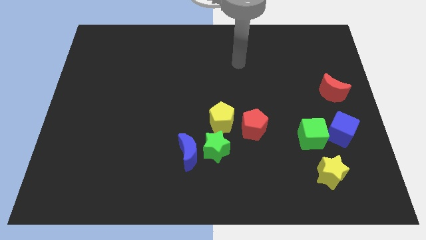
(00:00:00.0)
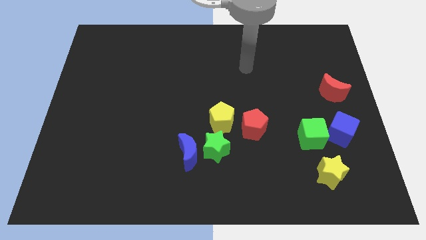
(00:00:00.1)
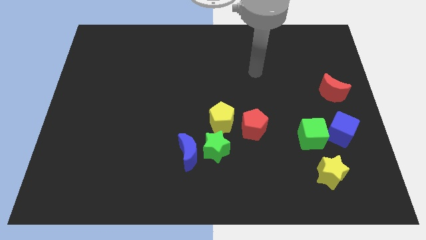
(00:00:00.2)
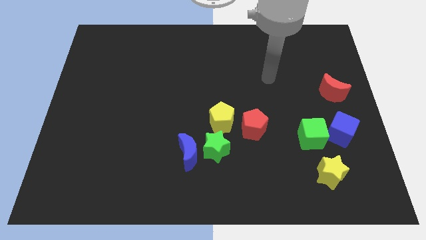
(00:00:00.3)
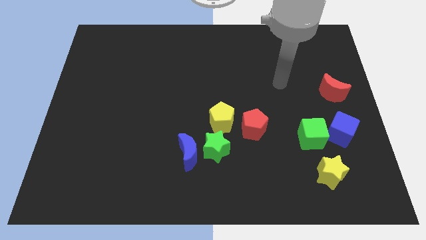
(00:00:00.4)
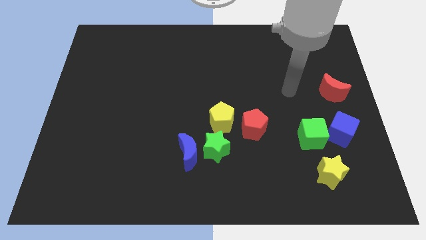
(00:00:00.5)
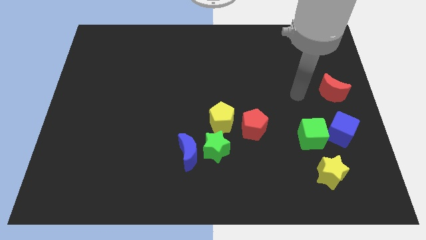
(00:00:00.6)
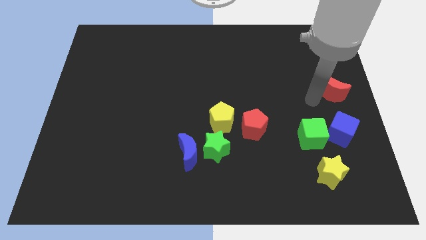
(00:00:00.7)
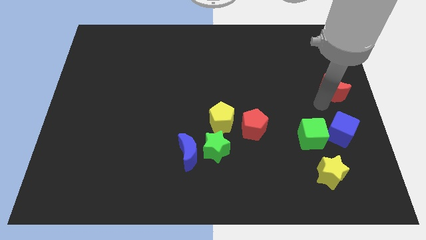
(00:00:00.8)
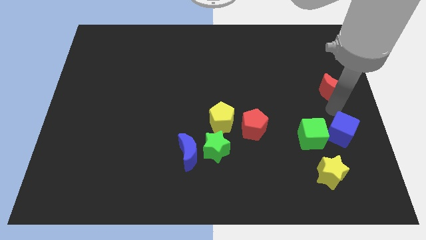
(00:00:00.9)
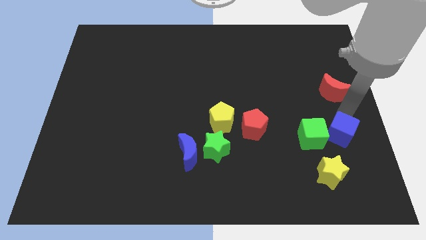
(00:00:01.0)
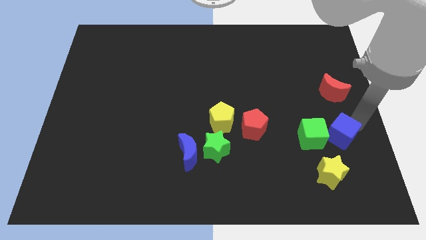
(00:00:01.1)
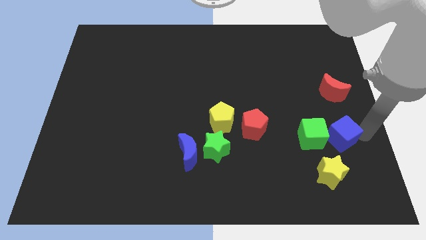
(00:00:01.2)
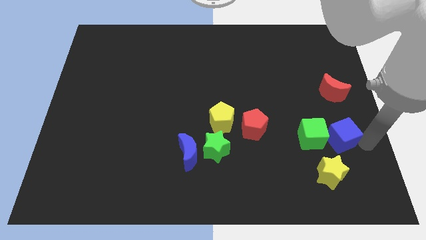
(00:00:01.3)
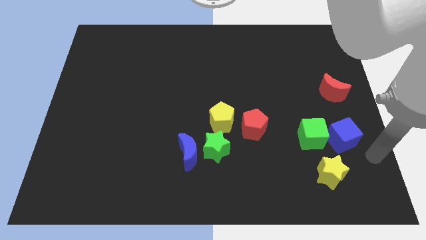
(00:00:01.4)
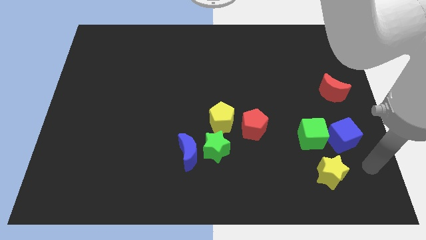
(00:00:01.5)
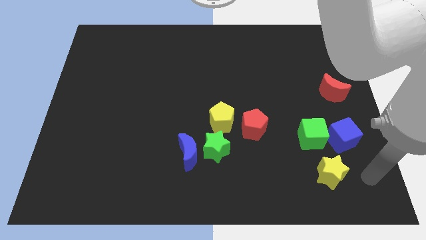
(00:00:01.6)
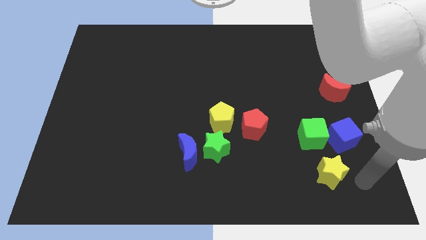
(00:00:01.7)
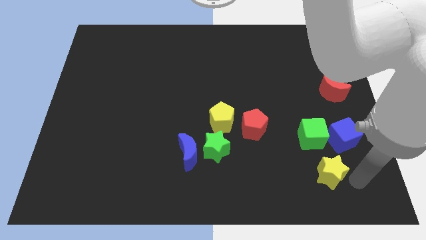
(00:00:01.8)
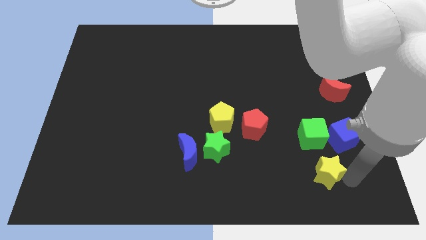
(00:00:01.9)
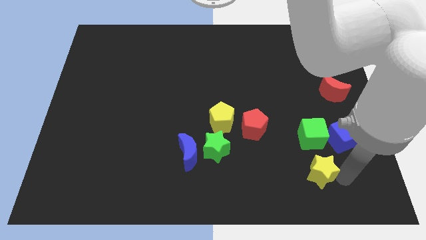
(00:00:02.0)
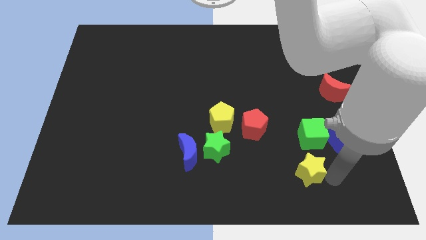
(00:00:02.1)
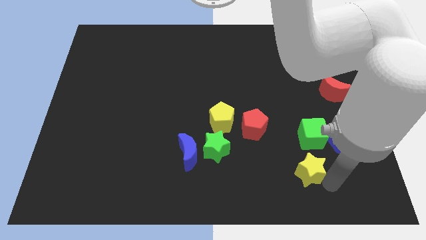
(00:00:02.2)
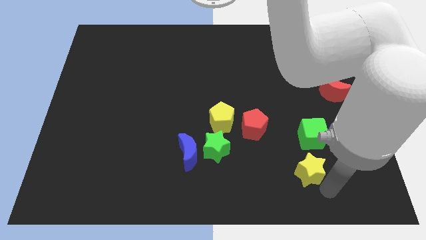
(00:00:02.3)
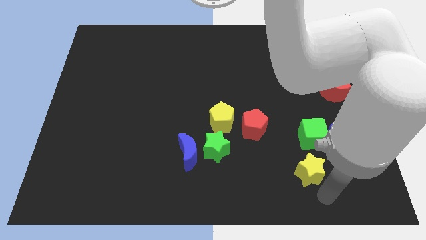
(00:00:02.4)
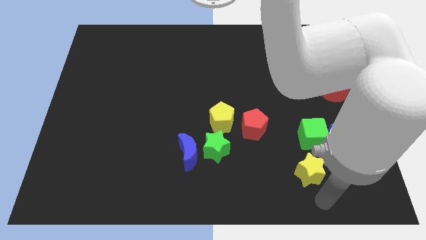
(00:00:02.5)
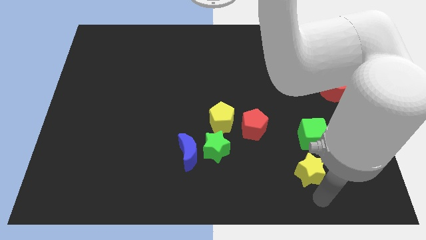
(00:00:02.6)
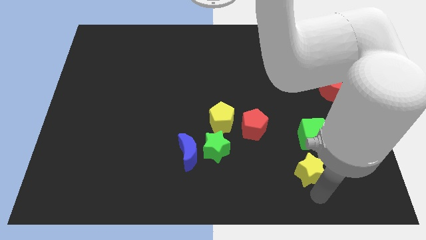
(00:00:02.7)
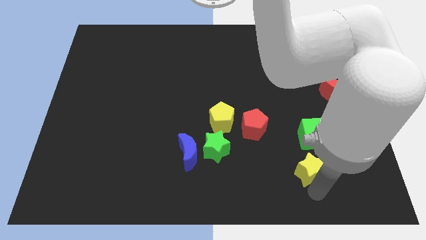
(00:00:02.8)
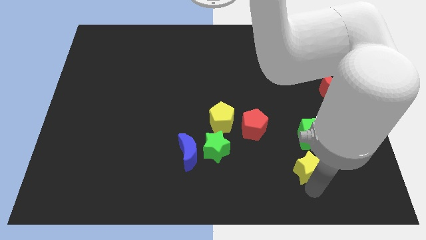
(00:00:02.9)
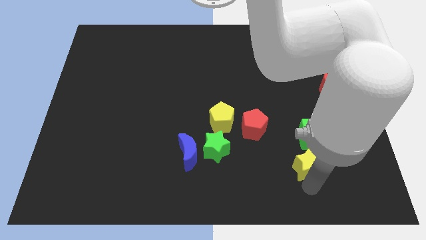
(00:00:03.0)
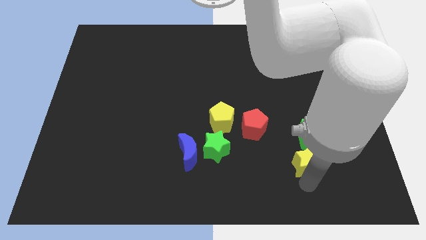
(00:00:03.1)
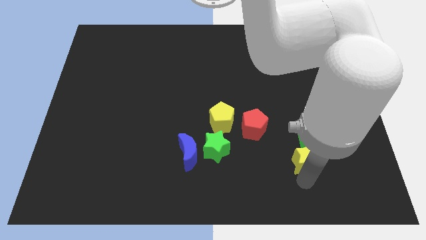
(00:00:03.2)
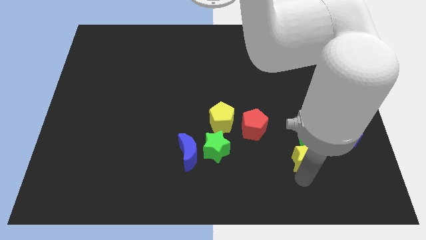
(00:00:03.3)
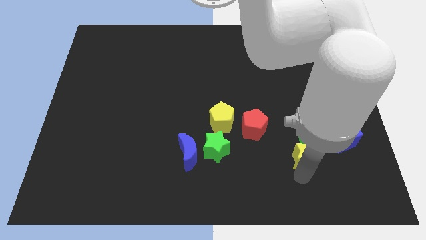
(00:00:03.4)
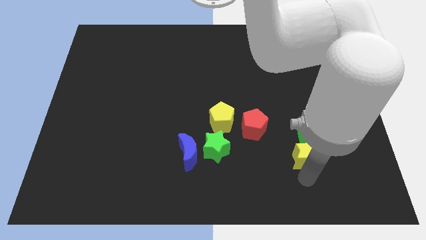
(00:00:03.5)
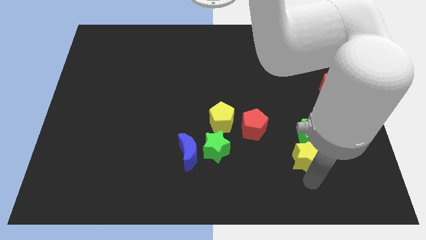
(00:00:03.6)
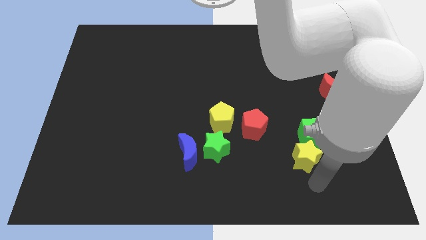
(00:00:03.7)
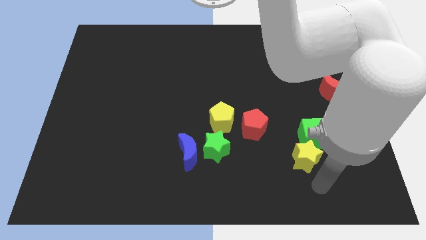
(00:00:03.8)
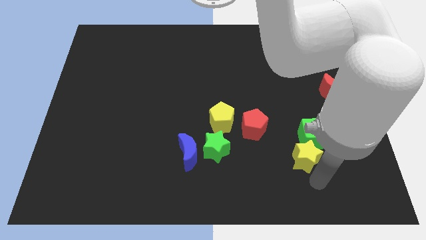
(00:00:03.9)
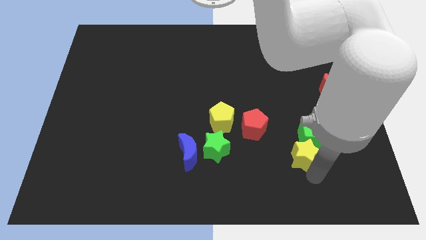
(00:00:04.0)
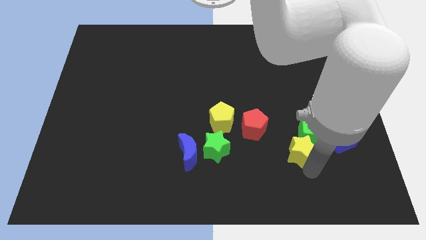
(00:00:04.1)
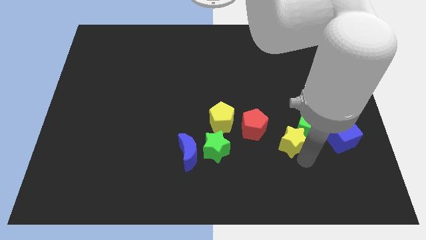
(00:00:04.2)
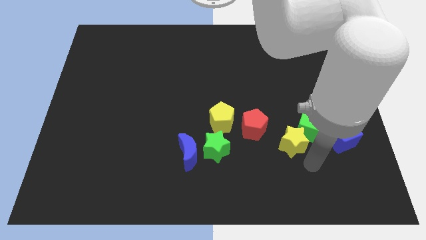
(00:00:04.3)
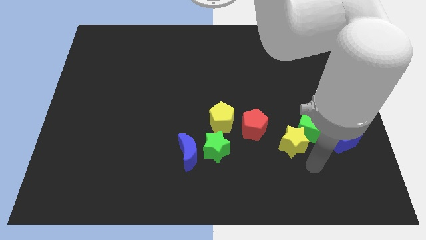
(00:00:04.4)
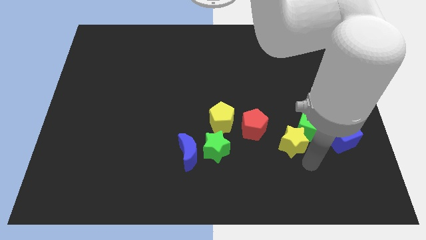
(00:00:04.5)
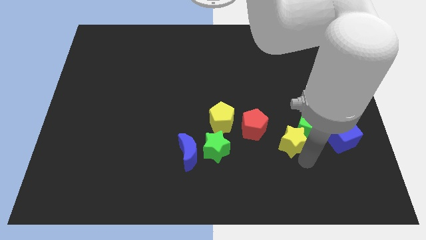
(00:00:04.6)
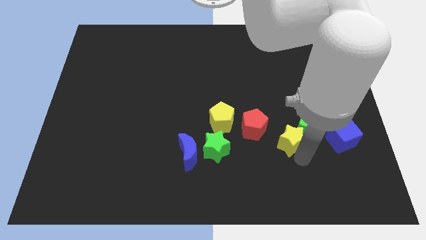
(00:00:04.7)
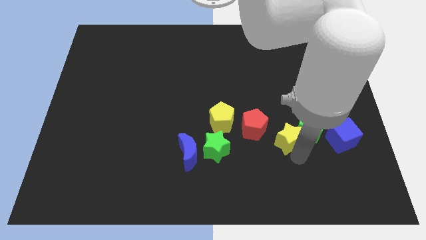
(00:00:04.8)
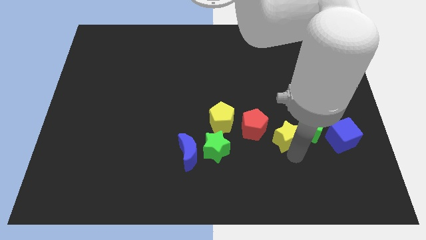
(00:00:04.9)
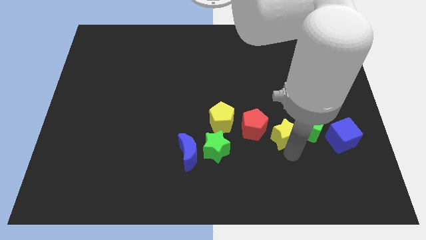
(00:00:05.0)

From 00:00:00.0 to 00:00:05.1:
put the yellow star just right of the yellow pentagon

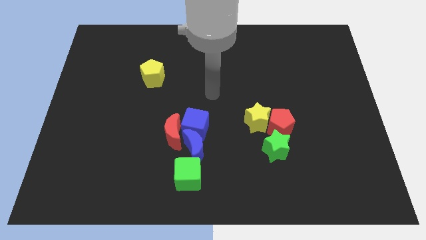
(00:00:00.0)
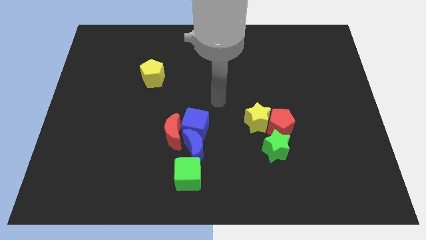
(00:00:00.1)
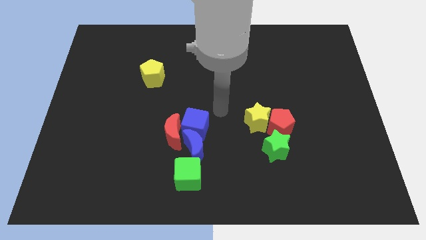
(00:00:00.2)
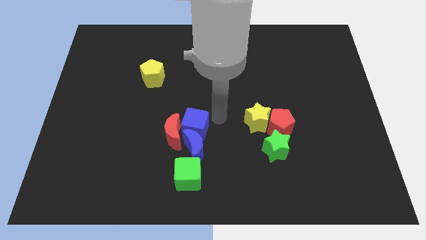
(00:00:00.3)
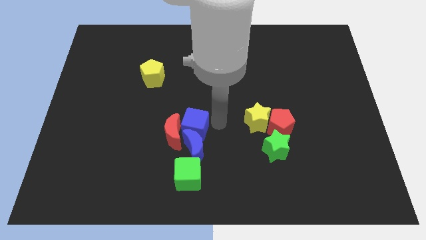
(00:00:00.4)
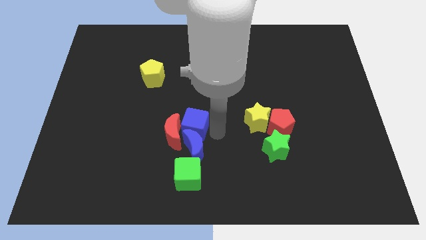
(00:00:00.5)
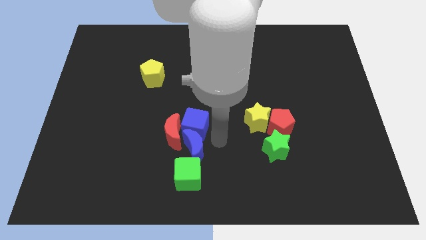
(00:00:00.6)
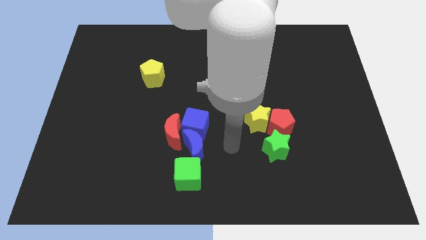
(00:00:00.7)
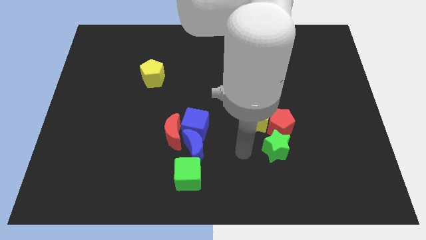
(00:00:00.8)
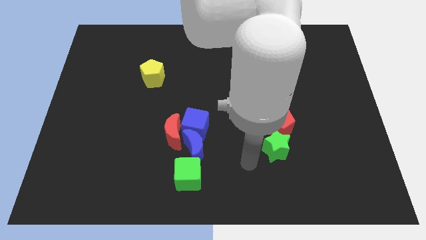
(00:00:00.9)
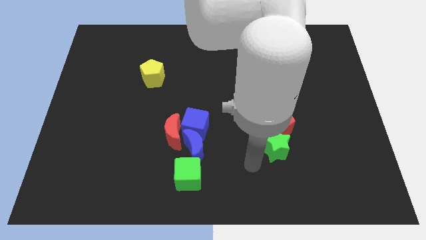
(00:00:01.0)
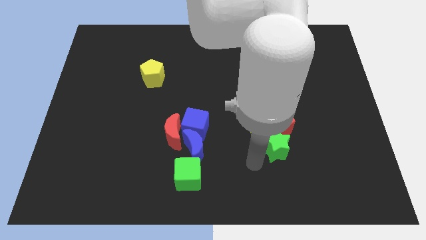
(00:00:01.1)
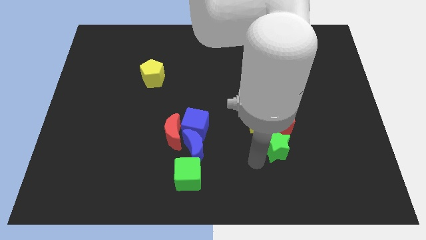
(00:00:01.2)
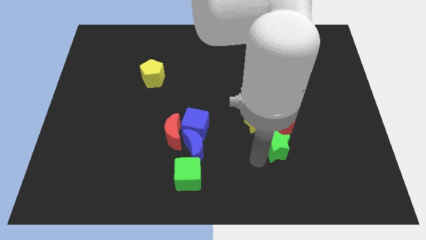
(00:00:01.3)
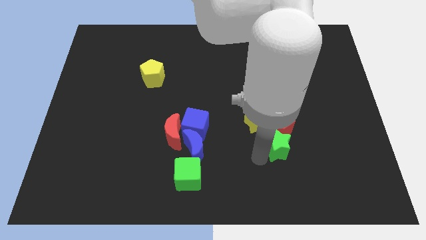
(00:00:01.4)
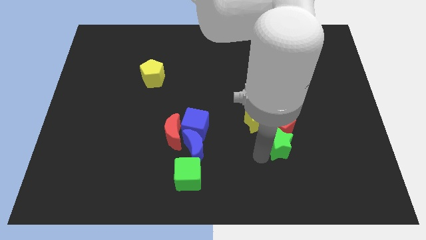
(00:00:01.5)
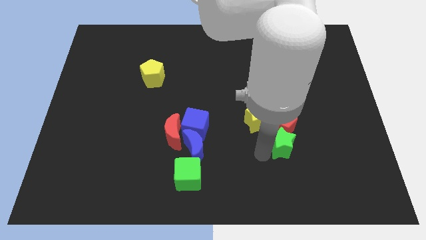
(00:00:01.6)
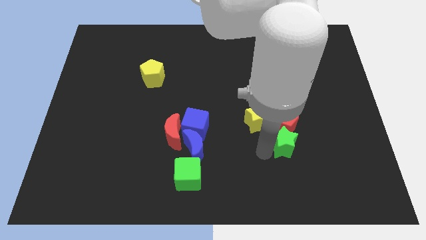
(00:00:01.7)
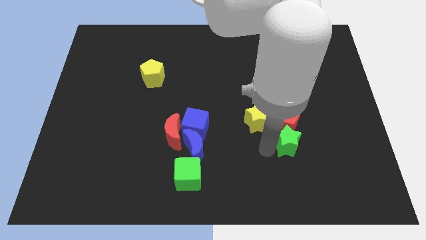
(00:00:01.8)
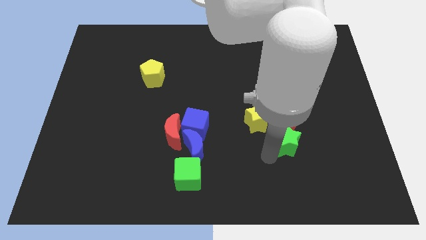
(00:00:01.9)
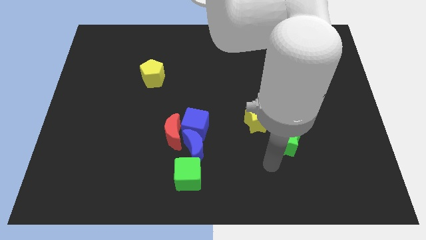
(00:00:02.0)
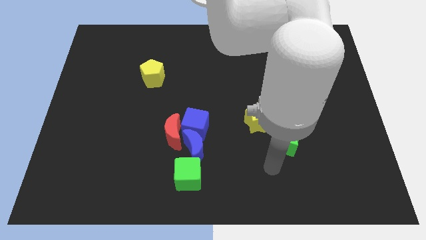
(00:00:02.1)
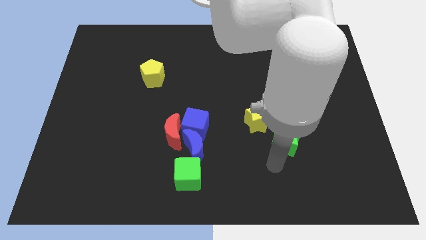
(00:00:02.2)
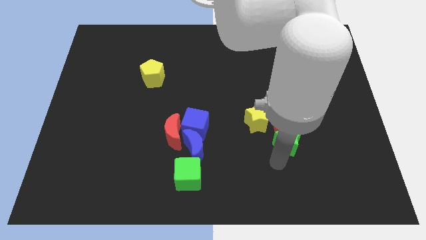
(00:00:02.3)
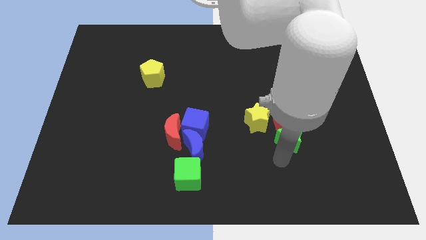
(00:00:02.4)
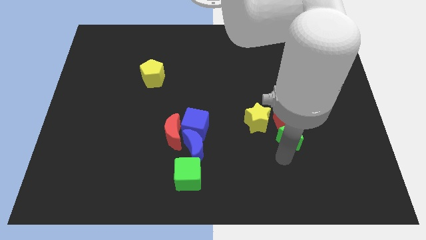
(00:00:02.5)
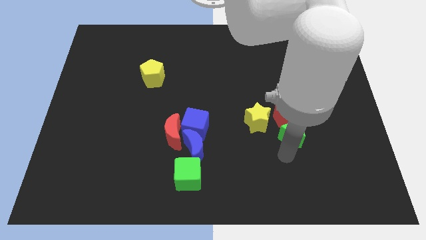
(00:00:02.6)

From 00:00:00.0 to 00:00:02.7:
put the green star to the right of the yellow star
